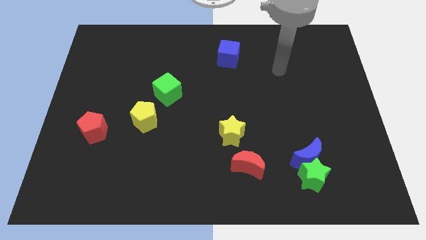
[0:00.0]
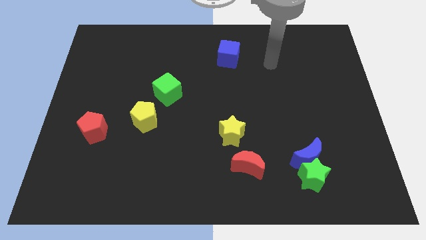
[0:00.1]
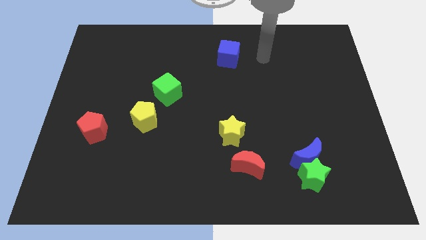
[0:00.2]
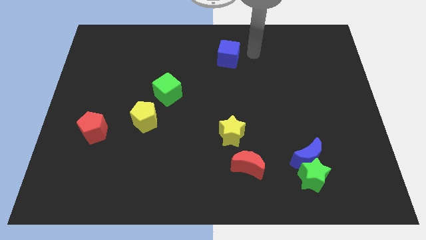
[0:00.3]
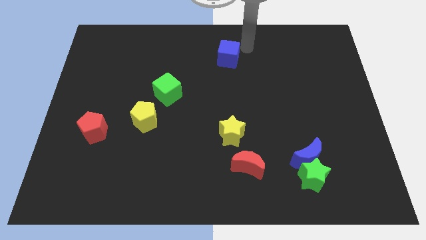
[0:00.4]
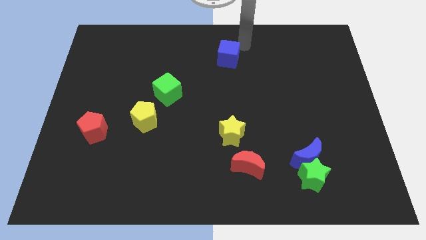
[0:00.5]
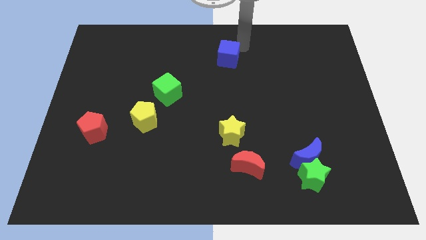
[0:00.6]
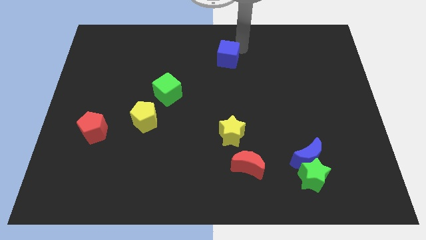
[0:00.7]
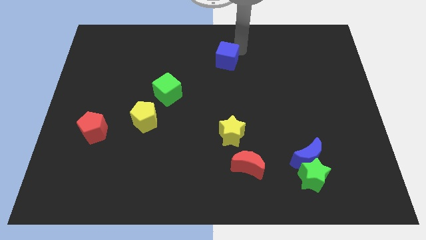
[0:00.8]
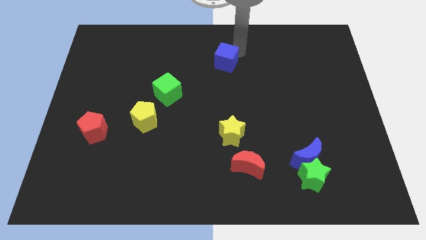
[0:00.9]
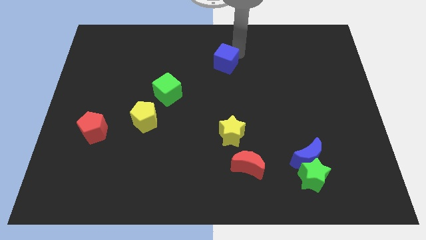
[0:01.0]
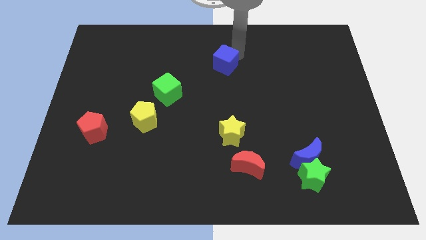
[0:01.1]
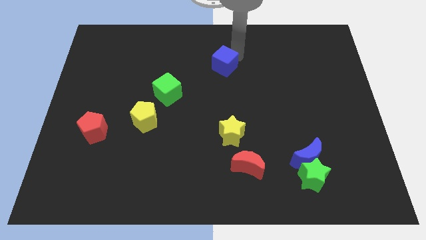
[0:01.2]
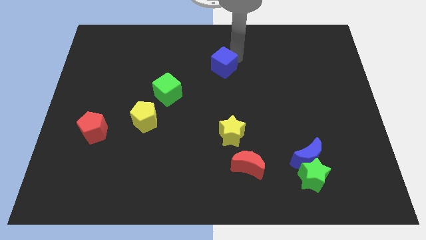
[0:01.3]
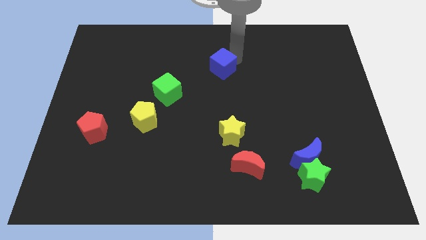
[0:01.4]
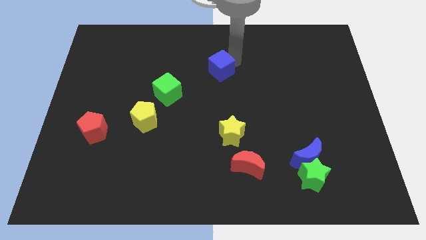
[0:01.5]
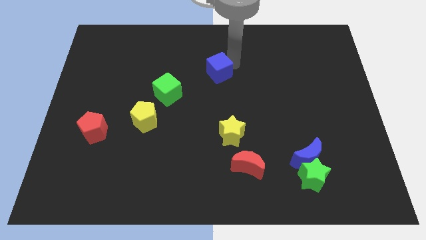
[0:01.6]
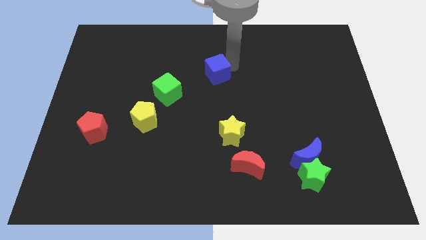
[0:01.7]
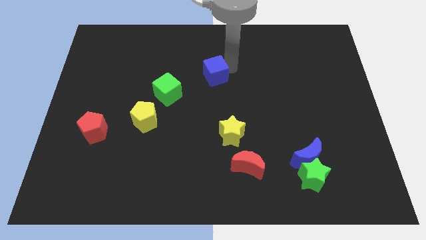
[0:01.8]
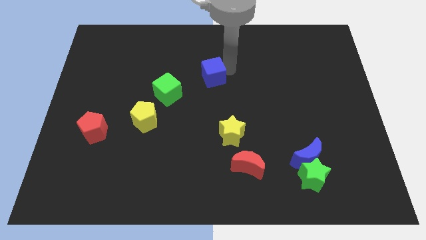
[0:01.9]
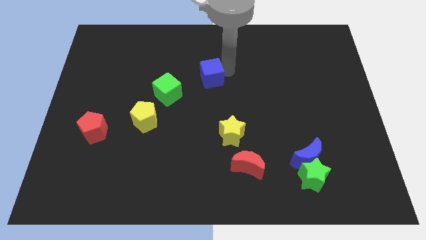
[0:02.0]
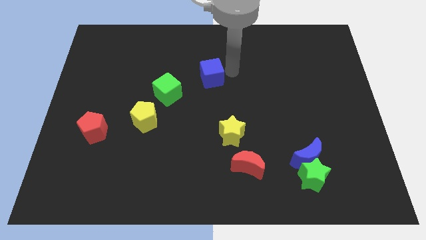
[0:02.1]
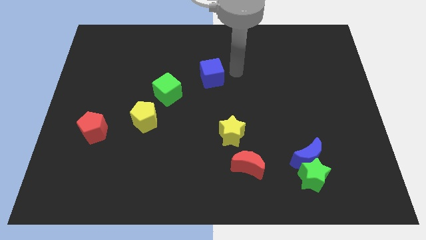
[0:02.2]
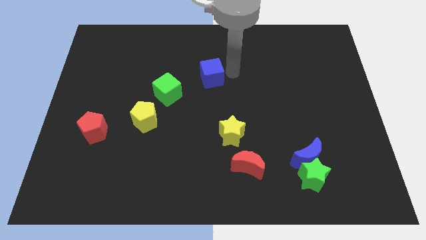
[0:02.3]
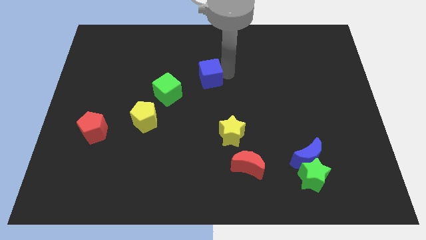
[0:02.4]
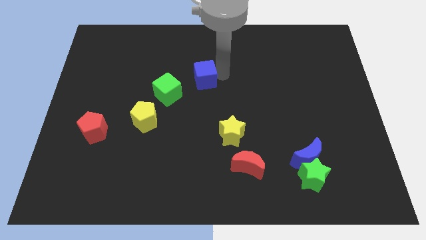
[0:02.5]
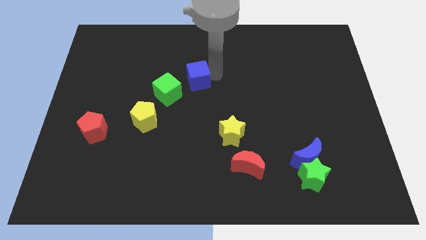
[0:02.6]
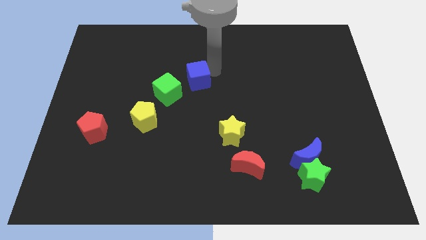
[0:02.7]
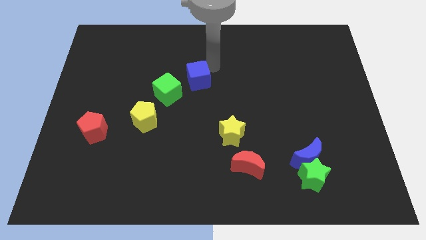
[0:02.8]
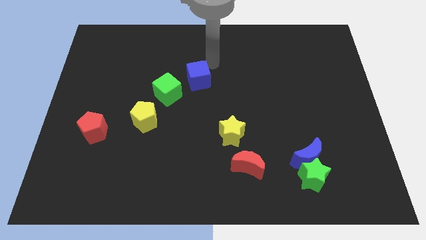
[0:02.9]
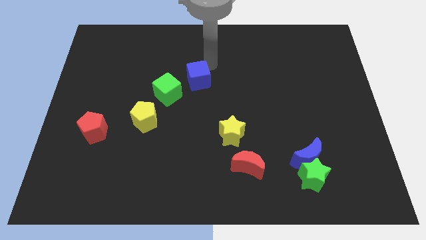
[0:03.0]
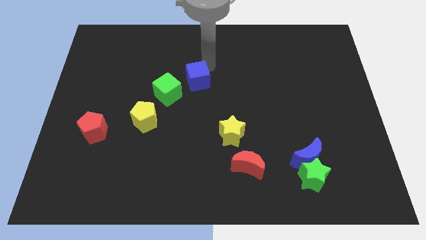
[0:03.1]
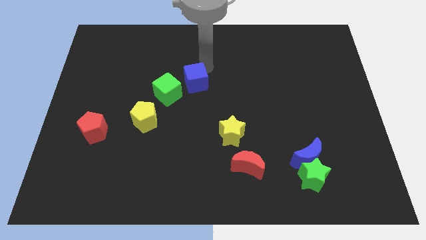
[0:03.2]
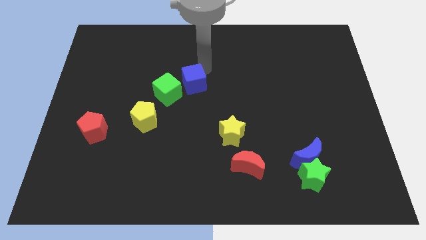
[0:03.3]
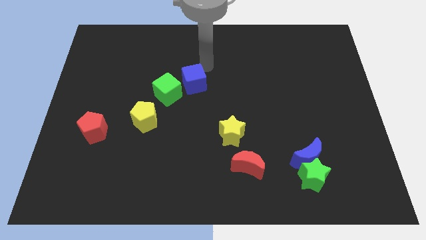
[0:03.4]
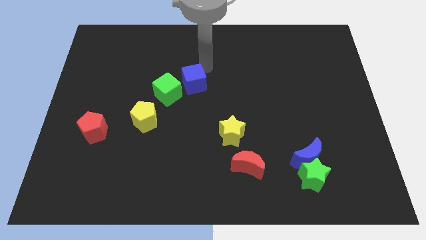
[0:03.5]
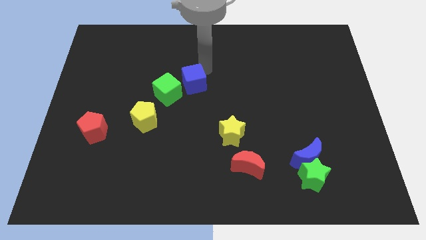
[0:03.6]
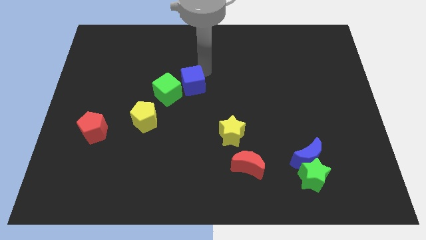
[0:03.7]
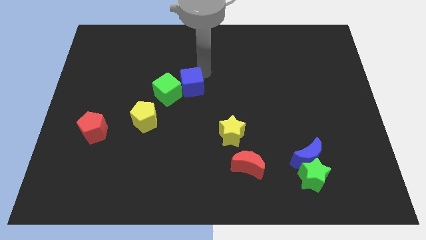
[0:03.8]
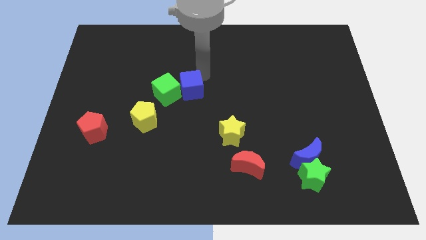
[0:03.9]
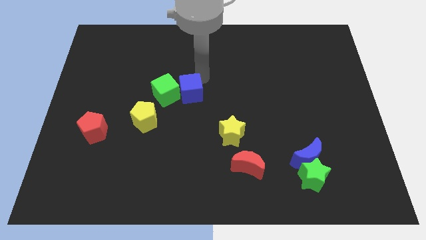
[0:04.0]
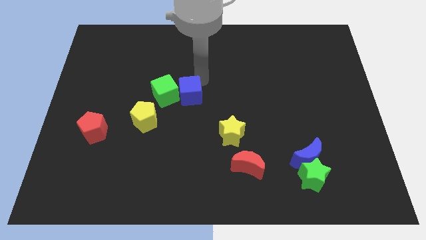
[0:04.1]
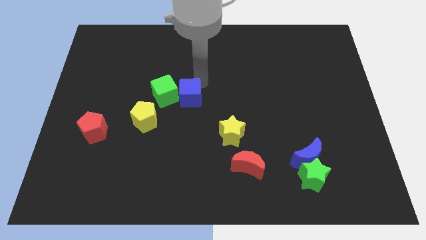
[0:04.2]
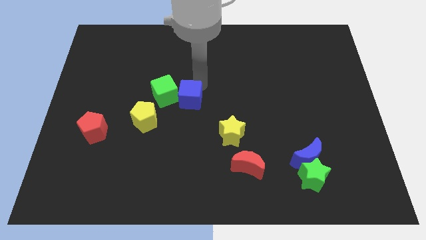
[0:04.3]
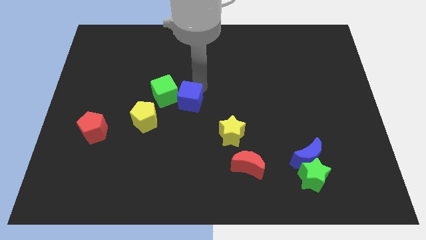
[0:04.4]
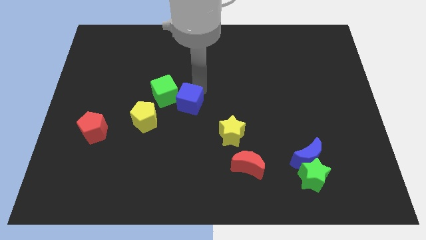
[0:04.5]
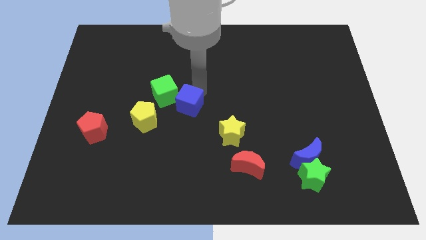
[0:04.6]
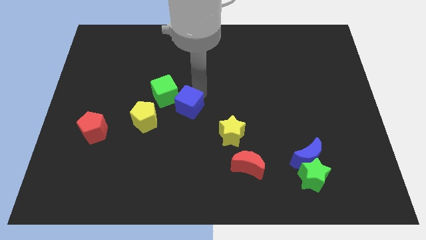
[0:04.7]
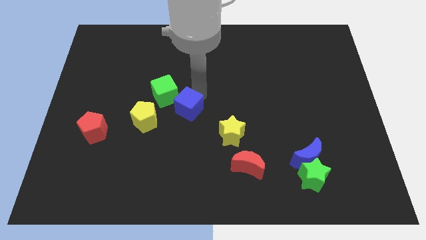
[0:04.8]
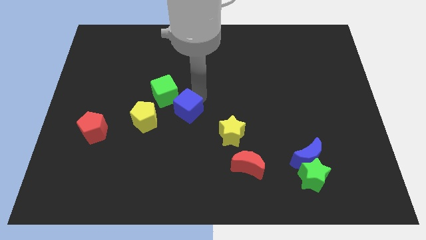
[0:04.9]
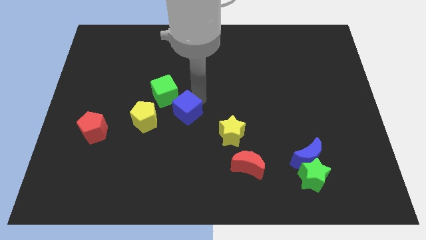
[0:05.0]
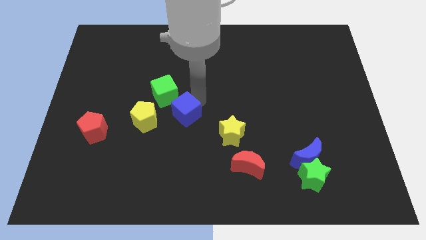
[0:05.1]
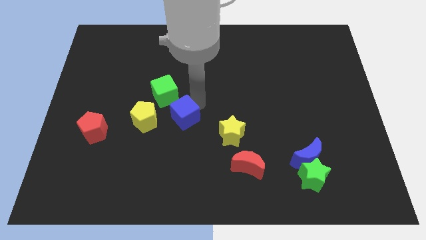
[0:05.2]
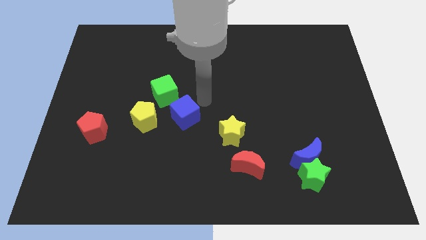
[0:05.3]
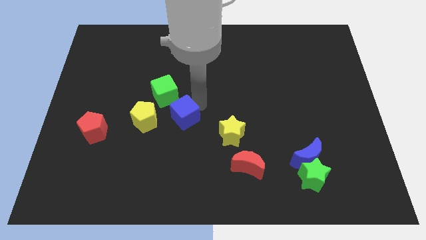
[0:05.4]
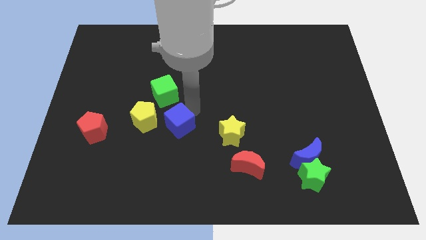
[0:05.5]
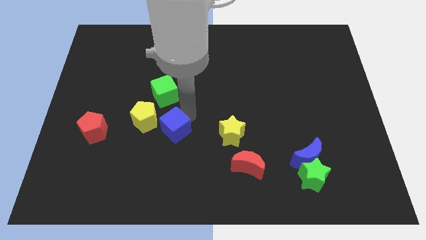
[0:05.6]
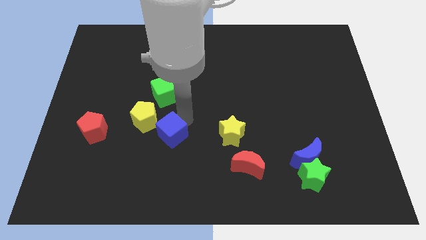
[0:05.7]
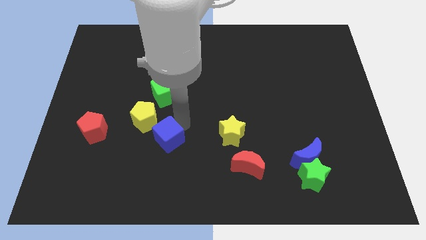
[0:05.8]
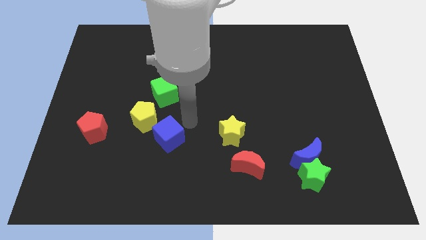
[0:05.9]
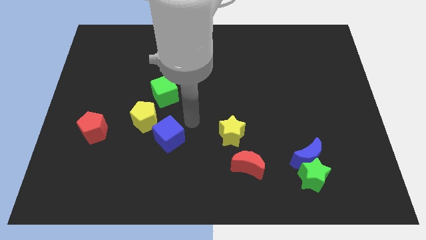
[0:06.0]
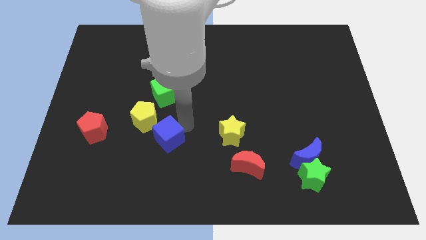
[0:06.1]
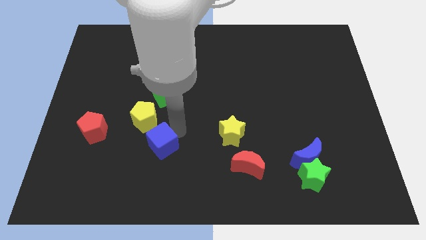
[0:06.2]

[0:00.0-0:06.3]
put the blue cube below the yellow pentagon

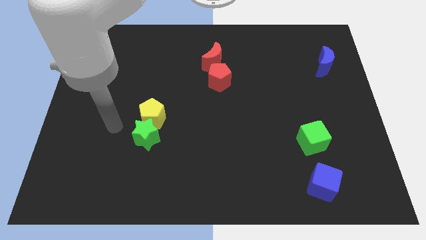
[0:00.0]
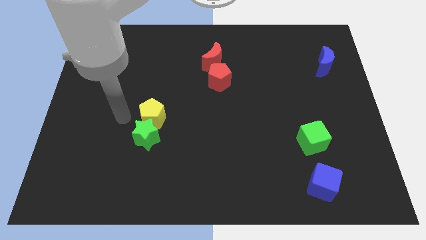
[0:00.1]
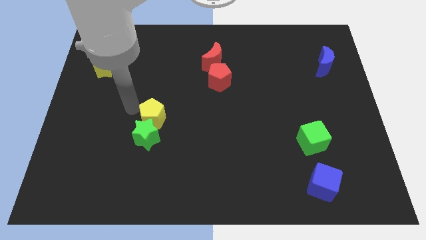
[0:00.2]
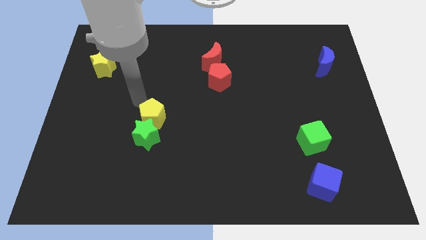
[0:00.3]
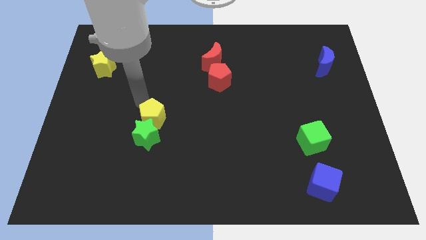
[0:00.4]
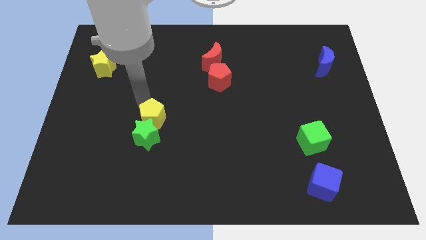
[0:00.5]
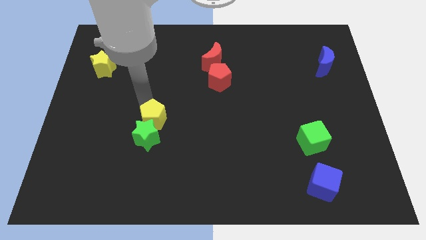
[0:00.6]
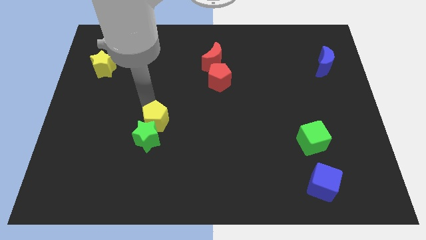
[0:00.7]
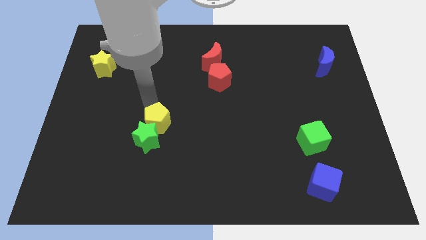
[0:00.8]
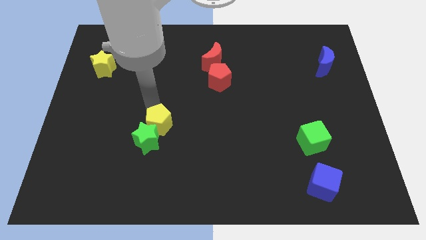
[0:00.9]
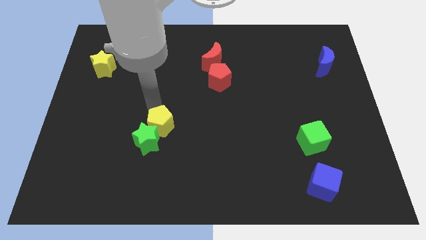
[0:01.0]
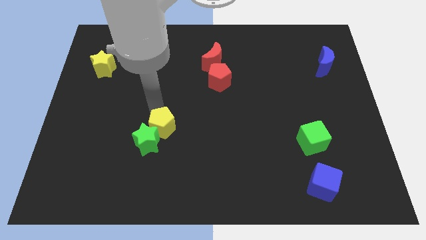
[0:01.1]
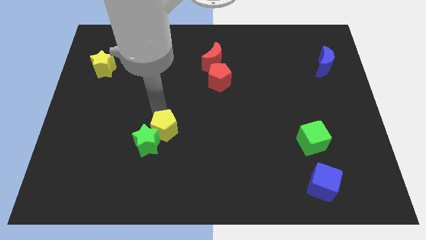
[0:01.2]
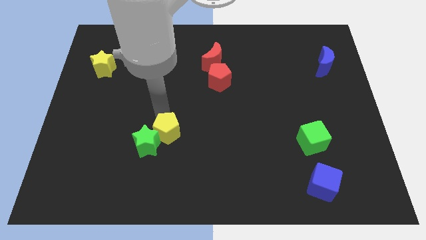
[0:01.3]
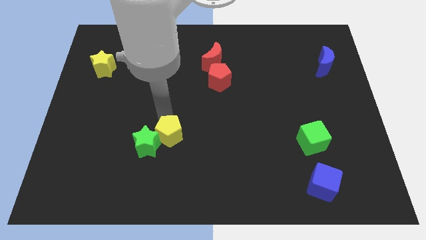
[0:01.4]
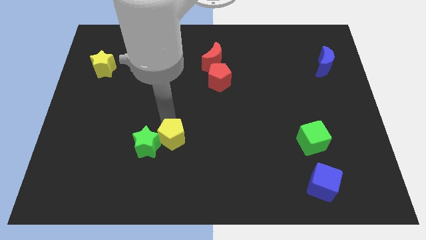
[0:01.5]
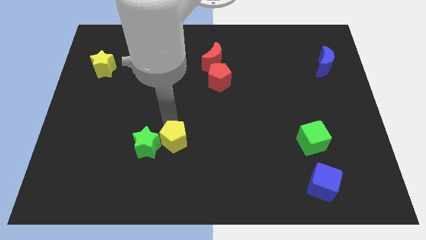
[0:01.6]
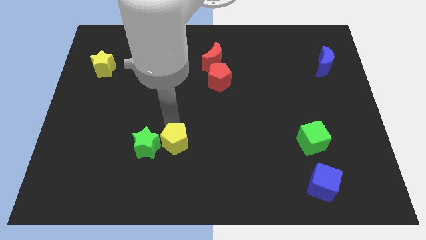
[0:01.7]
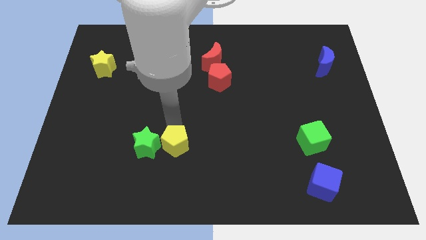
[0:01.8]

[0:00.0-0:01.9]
slide the yellow pentagon diagonally down and to the right of the green star
